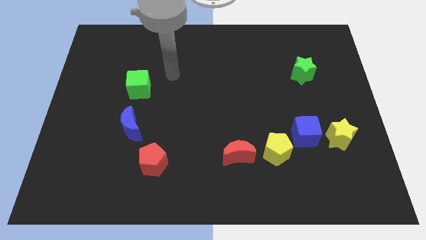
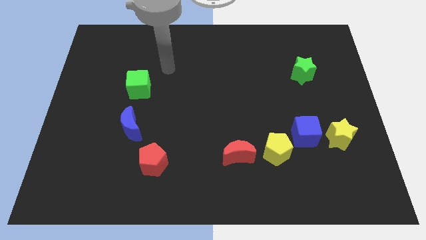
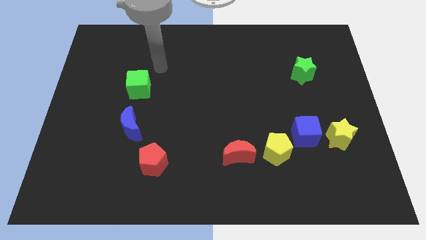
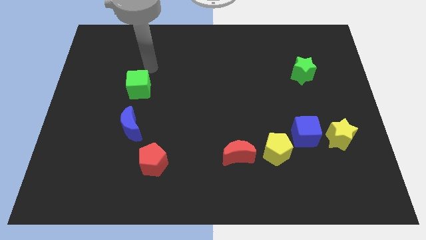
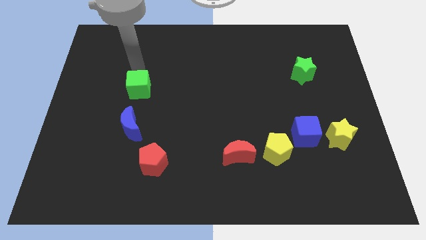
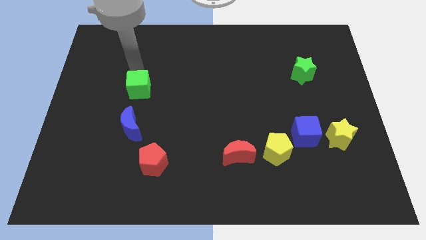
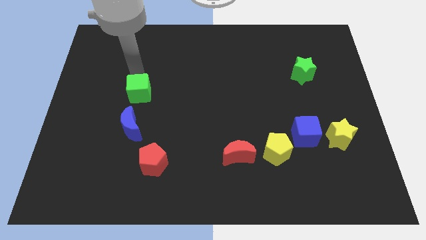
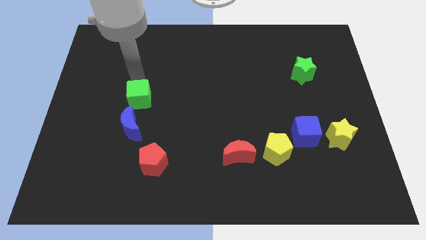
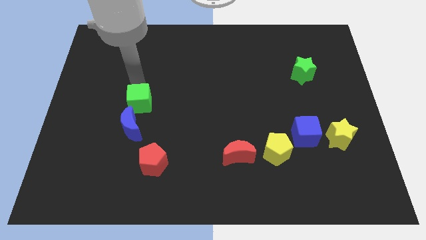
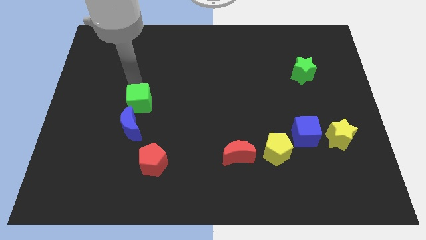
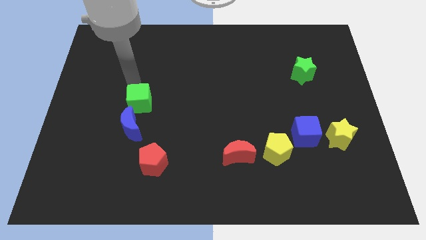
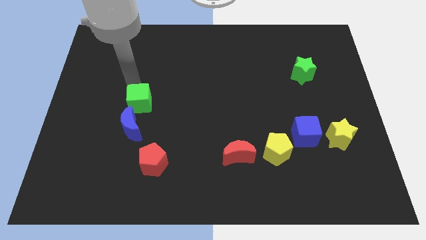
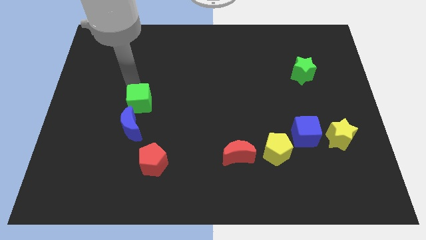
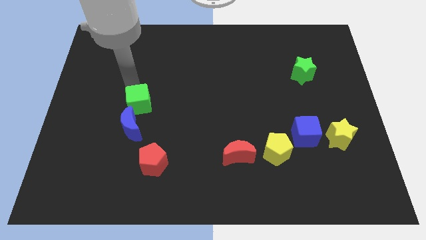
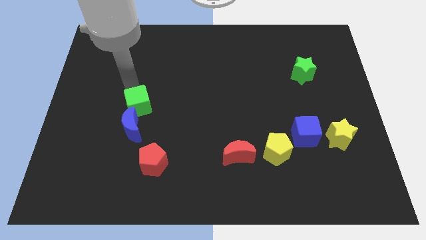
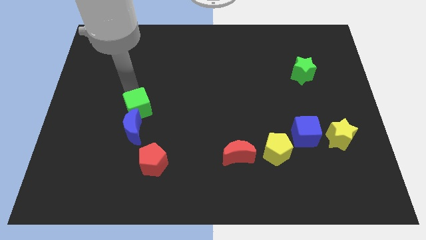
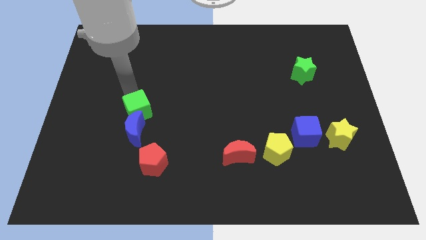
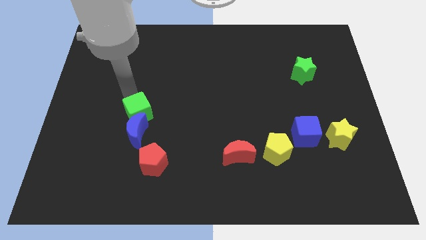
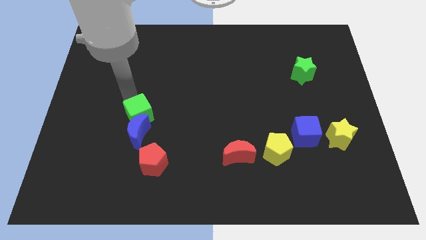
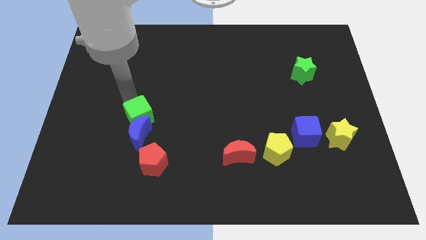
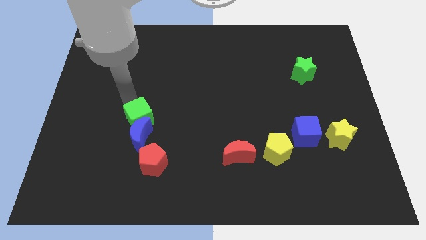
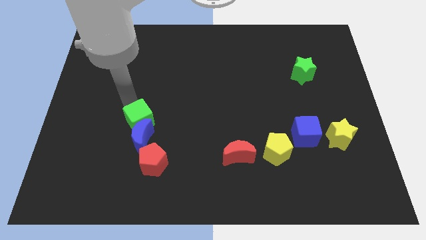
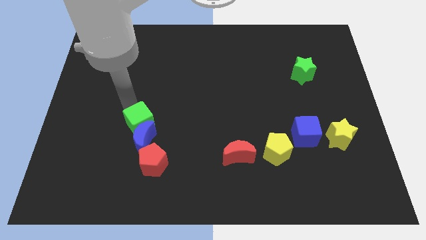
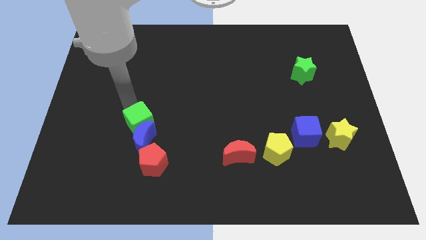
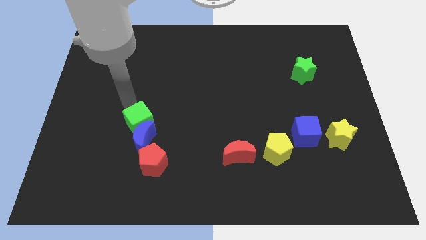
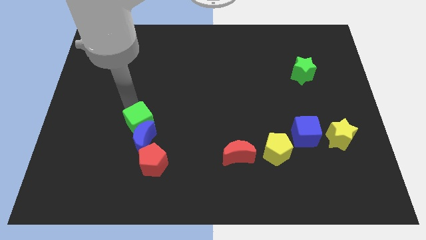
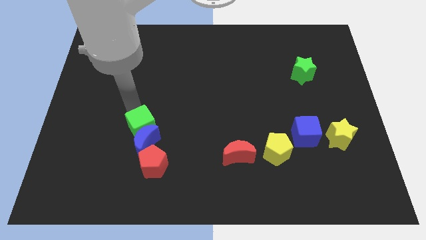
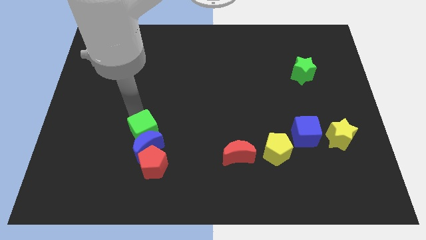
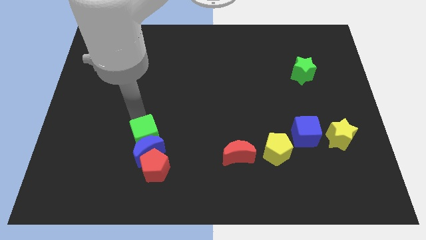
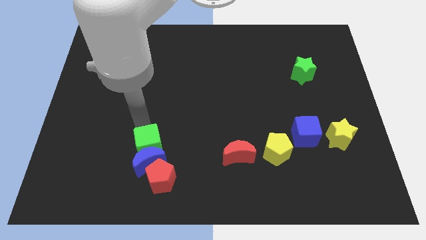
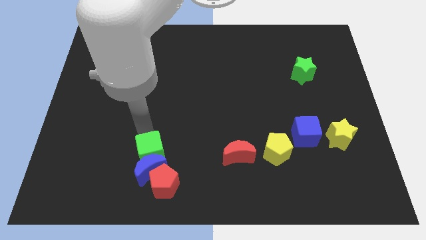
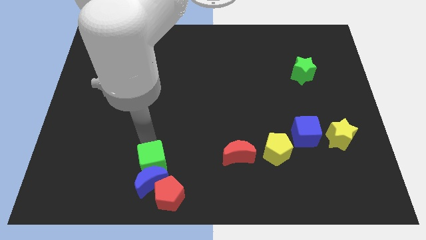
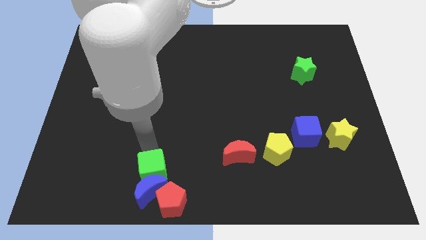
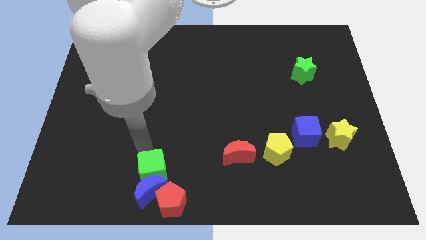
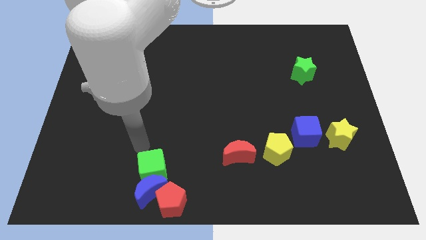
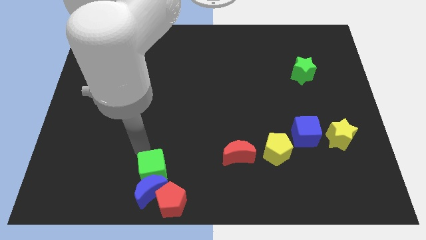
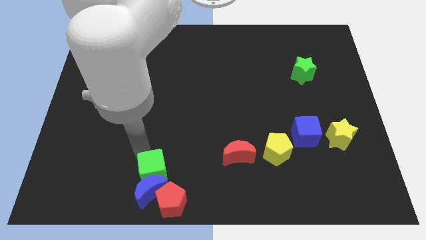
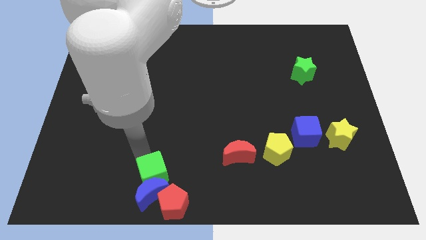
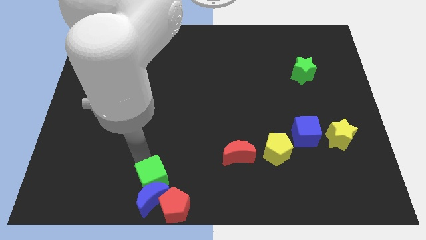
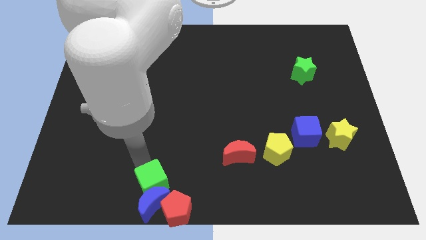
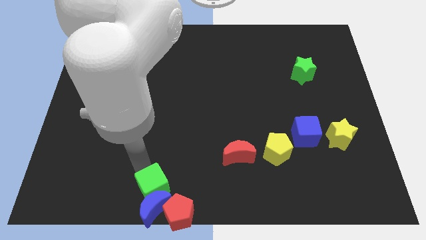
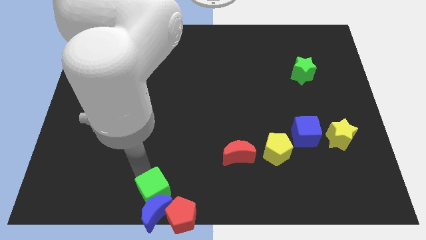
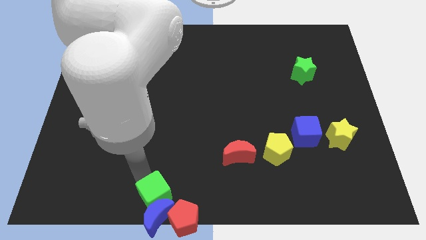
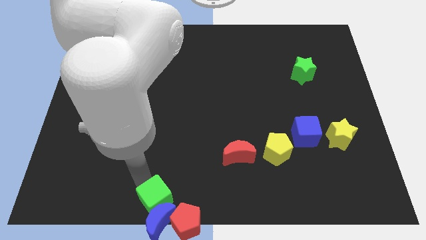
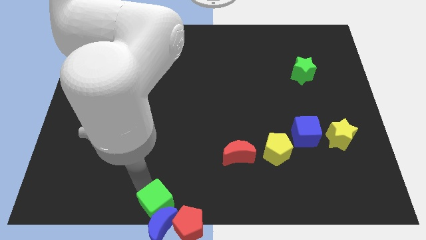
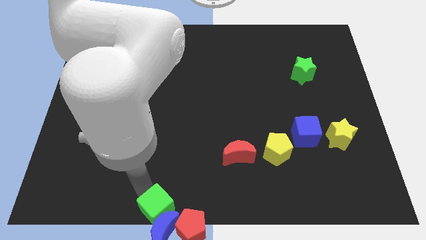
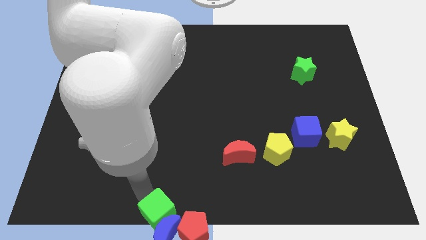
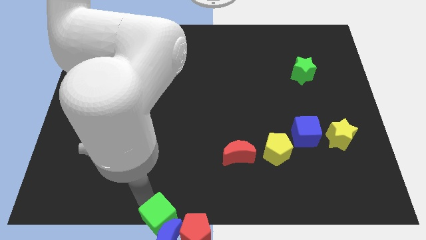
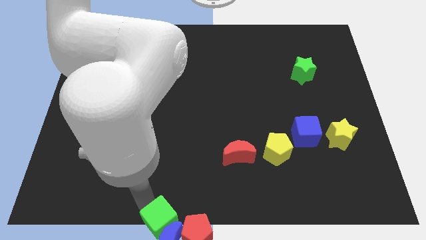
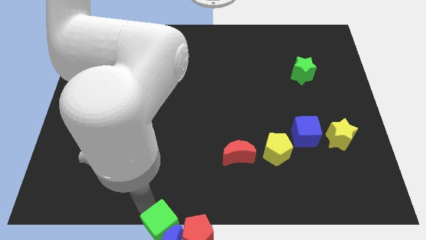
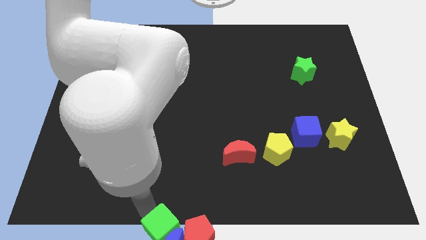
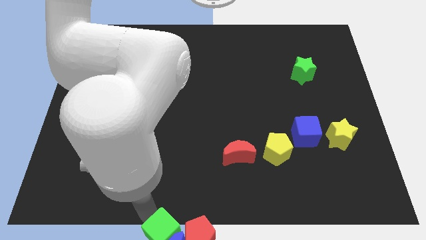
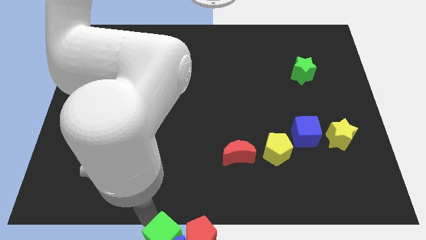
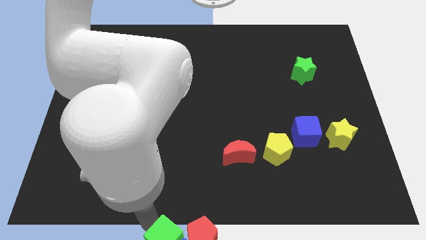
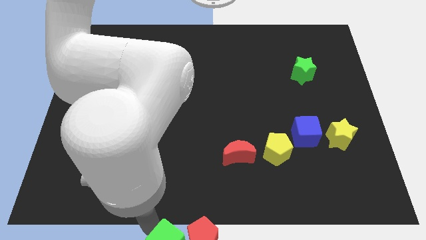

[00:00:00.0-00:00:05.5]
move the green cube next to the red pentagon
